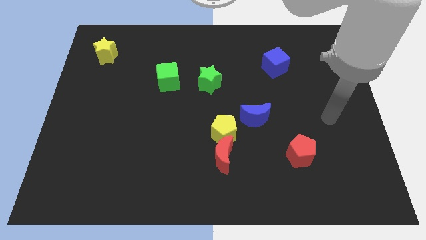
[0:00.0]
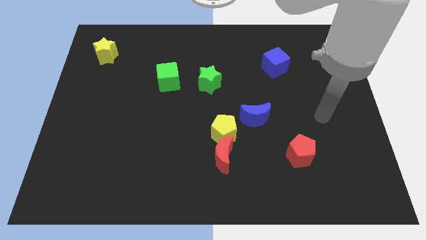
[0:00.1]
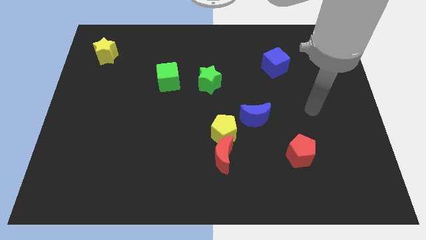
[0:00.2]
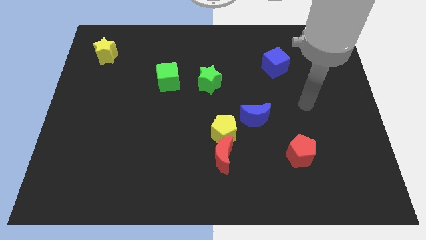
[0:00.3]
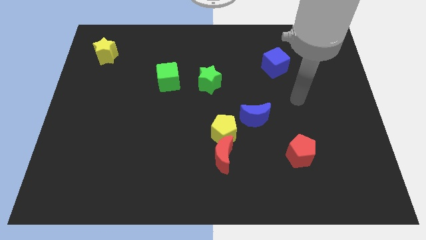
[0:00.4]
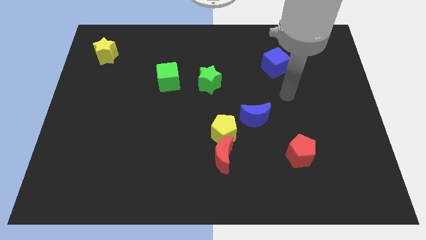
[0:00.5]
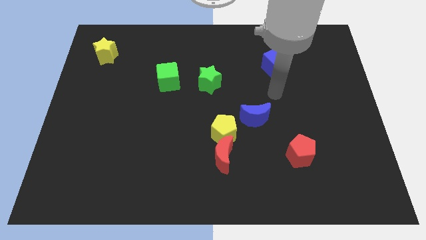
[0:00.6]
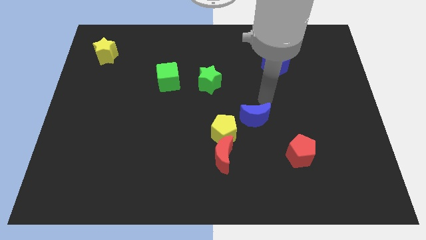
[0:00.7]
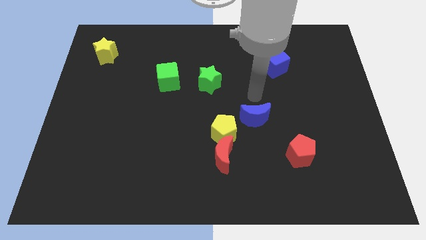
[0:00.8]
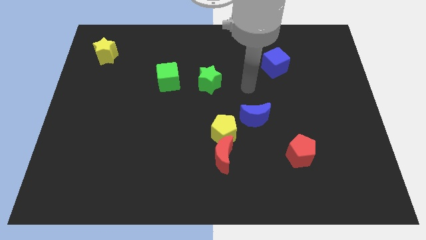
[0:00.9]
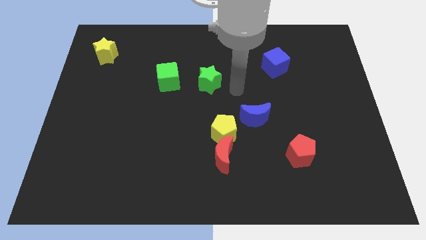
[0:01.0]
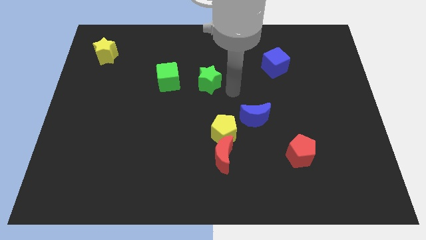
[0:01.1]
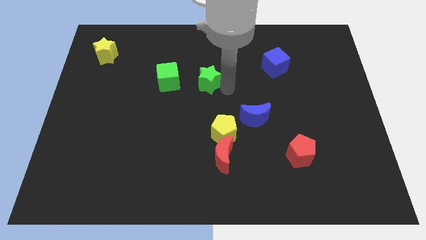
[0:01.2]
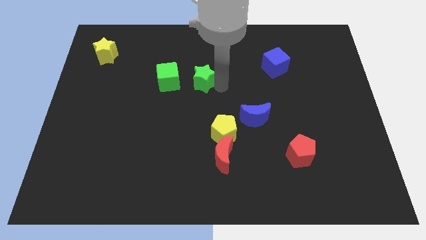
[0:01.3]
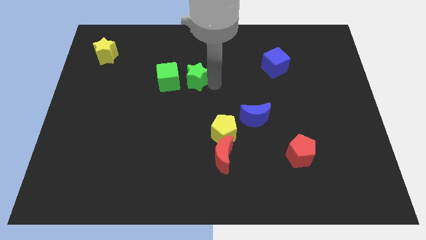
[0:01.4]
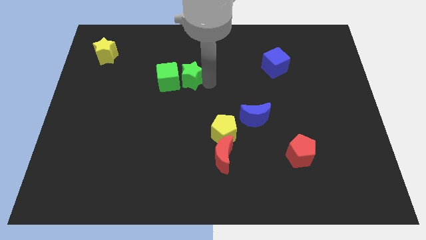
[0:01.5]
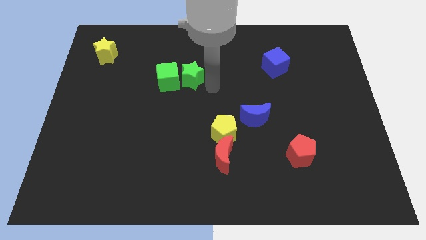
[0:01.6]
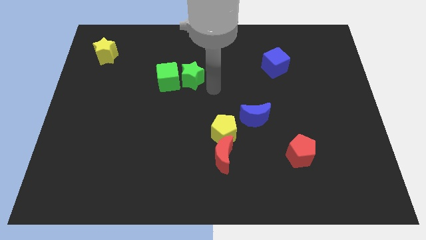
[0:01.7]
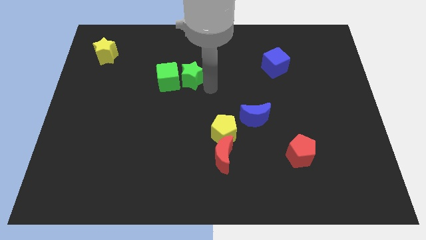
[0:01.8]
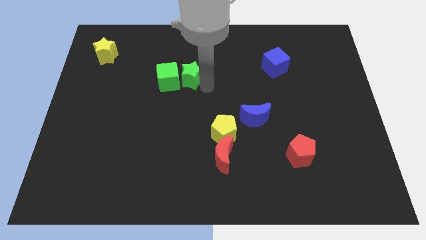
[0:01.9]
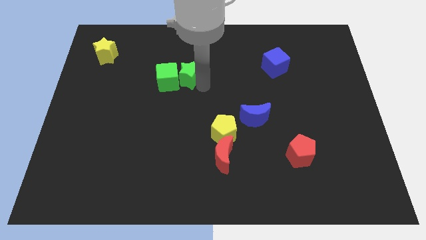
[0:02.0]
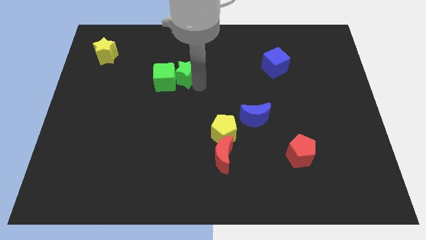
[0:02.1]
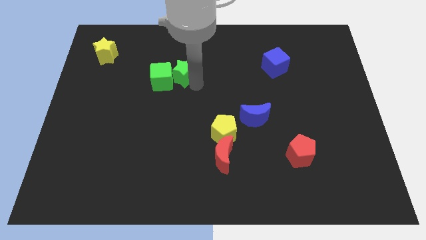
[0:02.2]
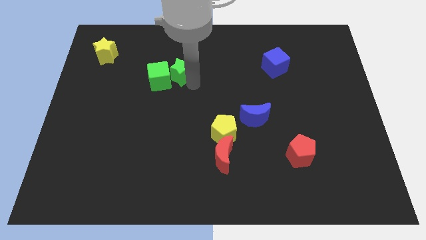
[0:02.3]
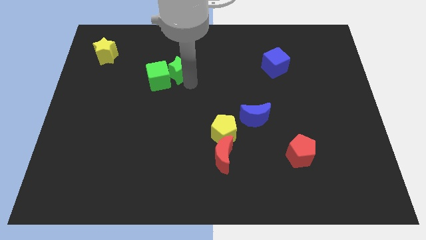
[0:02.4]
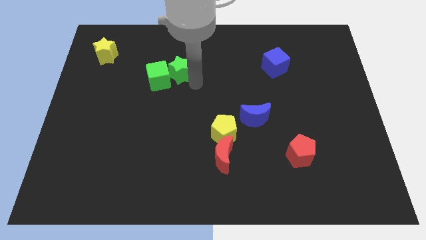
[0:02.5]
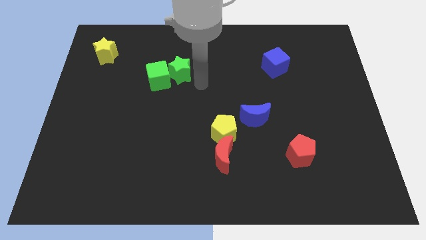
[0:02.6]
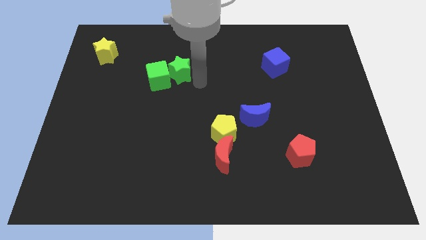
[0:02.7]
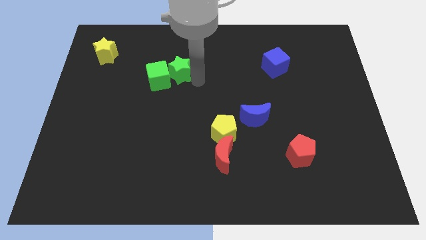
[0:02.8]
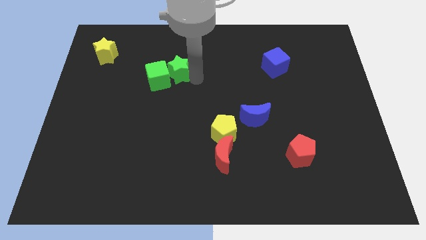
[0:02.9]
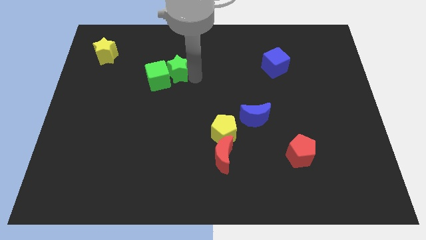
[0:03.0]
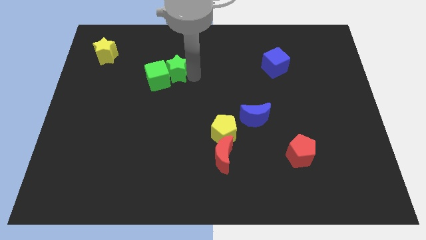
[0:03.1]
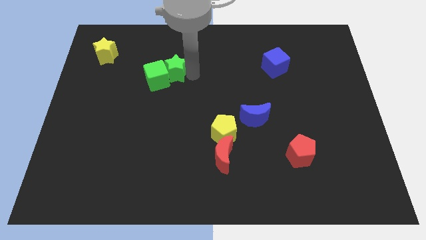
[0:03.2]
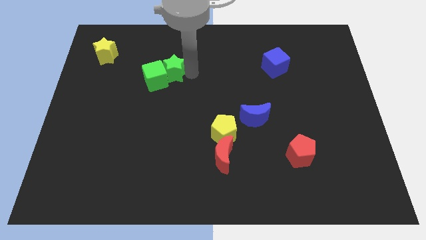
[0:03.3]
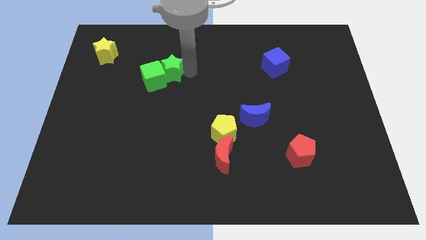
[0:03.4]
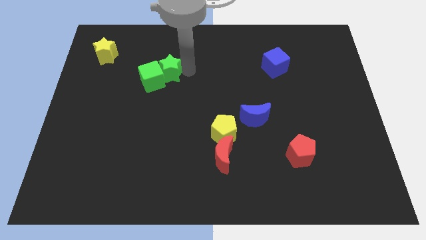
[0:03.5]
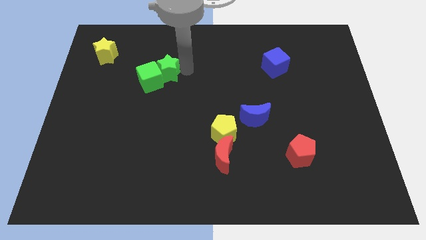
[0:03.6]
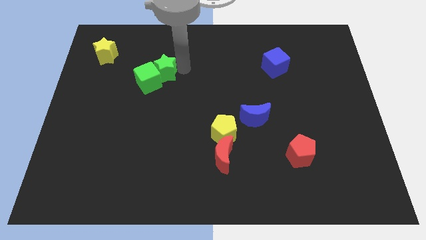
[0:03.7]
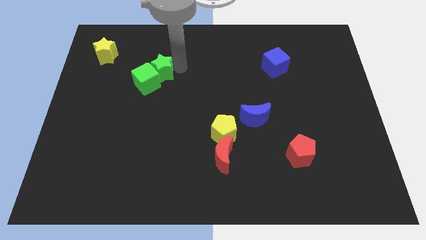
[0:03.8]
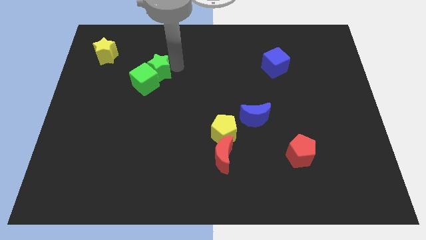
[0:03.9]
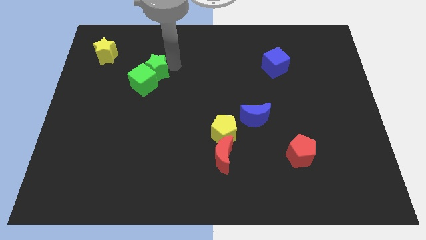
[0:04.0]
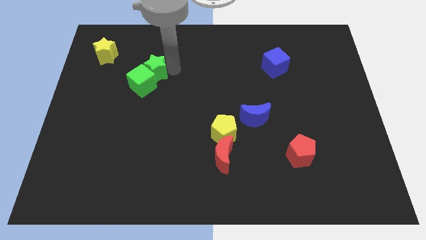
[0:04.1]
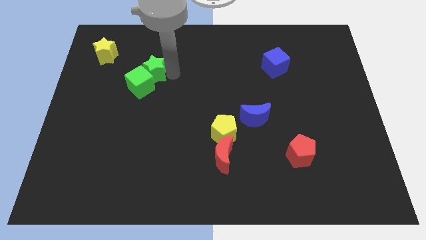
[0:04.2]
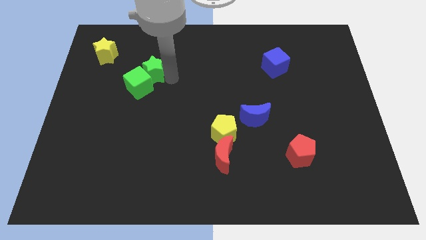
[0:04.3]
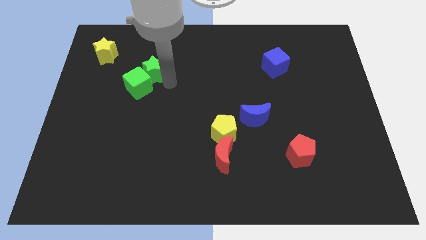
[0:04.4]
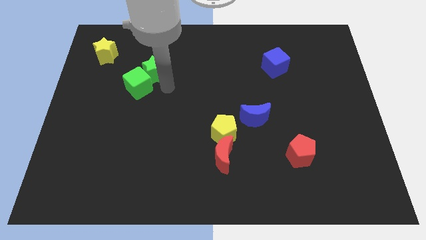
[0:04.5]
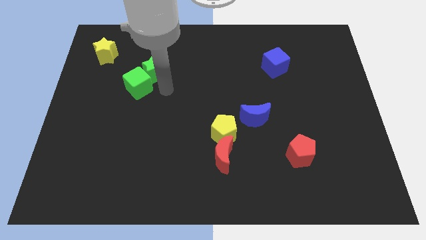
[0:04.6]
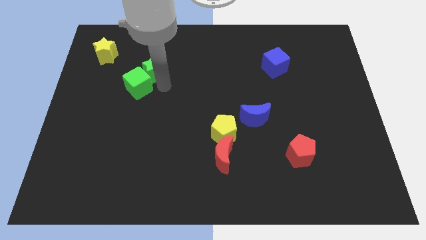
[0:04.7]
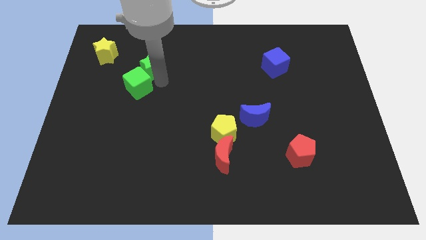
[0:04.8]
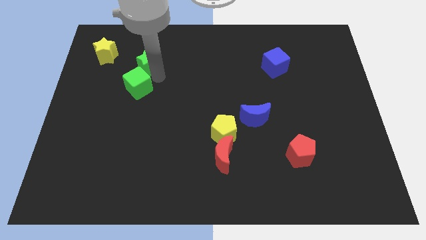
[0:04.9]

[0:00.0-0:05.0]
push the green star to the right of the yellow star

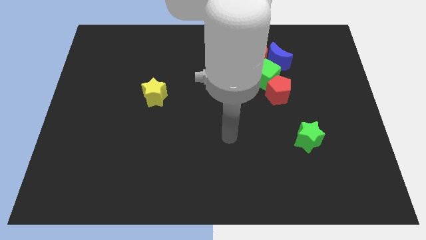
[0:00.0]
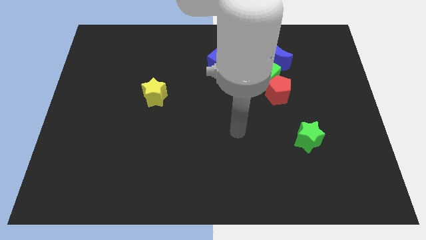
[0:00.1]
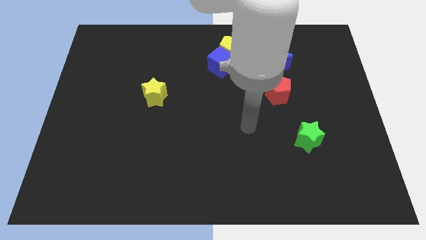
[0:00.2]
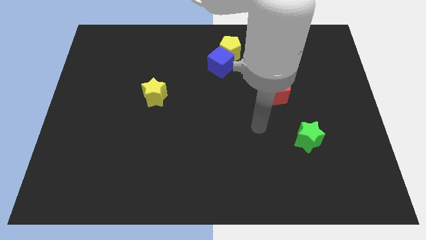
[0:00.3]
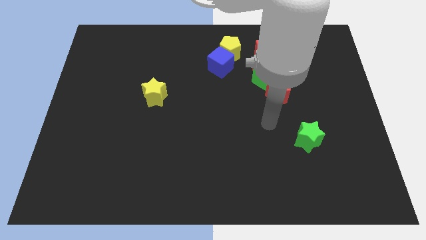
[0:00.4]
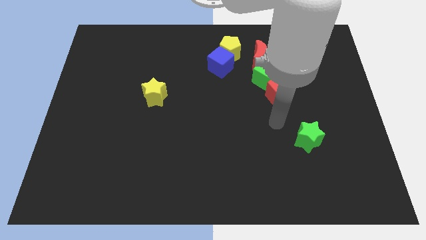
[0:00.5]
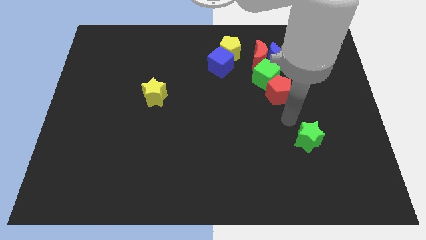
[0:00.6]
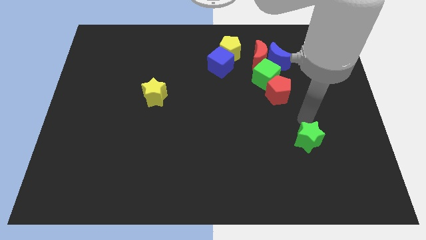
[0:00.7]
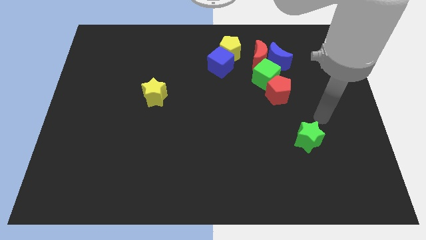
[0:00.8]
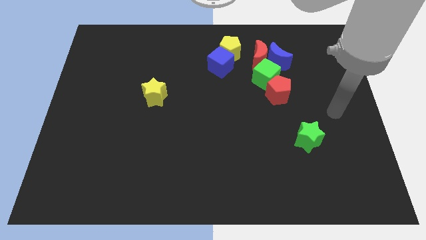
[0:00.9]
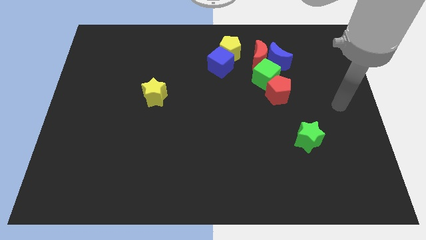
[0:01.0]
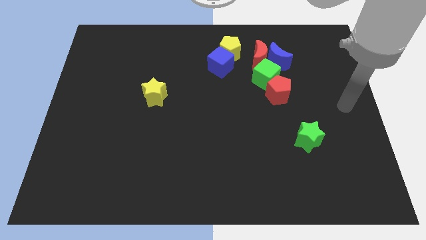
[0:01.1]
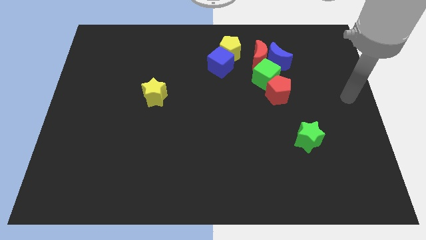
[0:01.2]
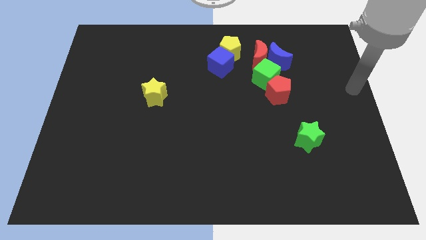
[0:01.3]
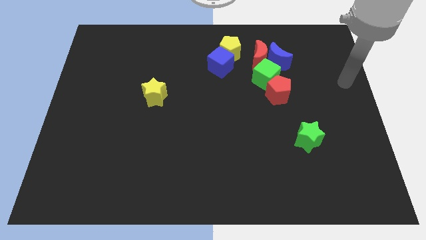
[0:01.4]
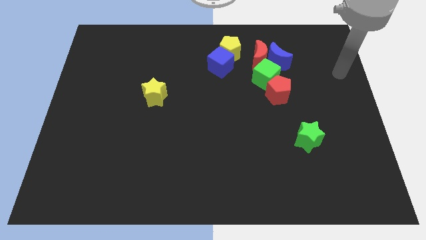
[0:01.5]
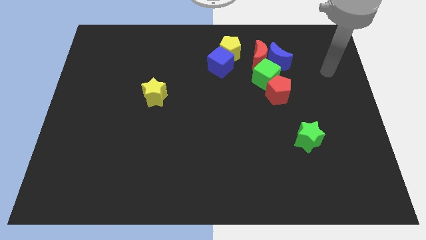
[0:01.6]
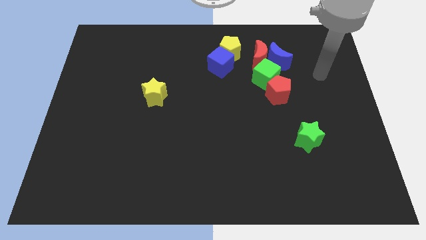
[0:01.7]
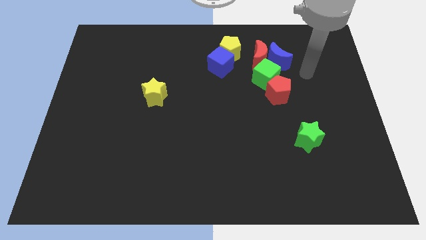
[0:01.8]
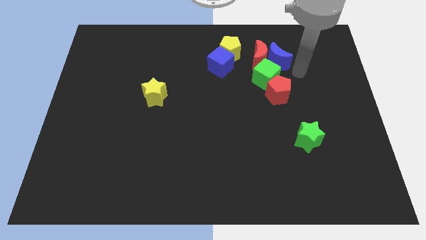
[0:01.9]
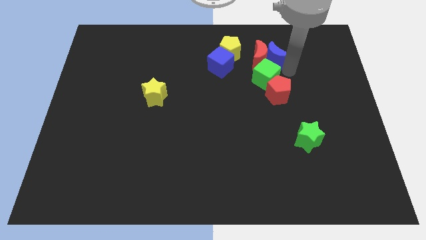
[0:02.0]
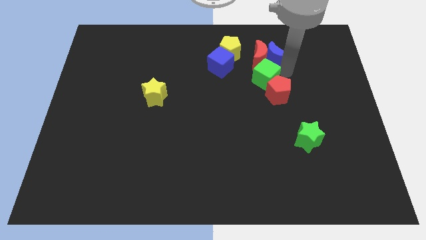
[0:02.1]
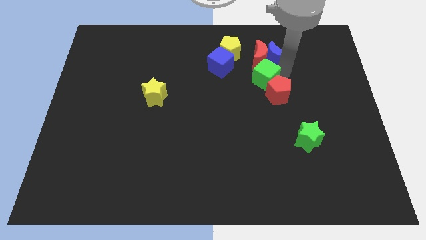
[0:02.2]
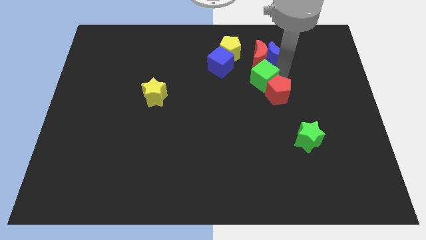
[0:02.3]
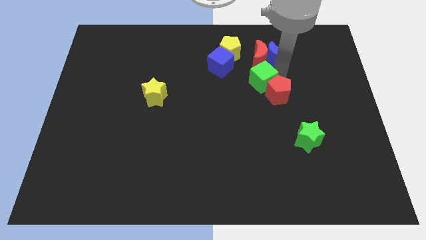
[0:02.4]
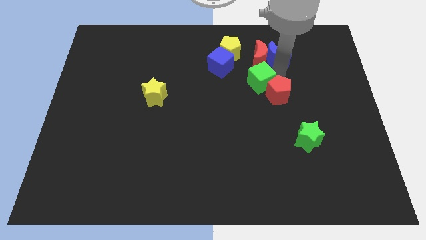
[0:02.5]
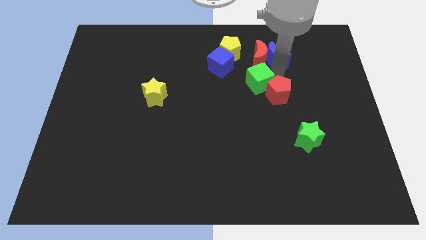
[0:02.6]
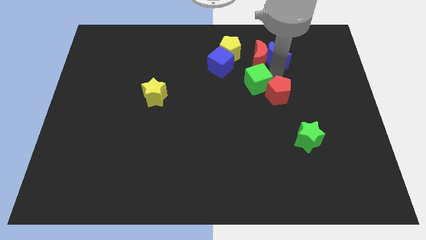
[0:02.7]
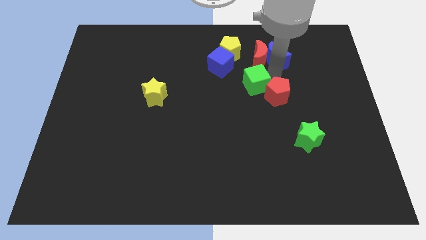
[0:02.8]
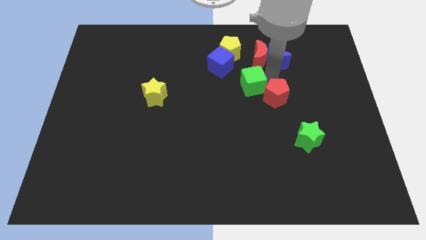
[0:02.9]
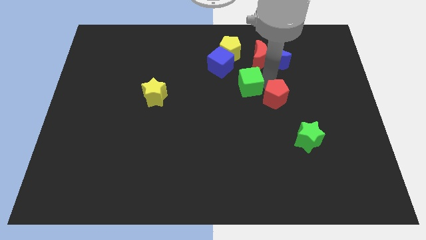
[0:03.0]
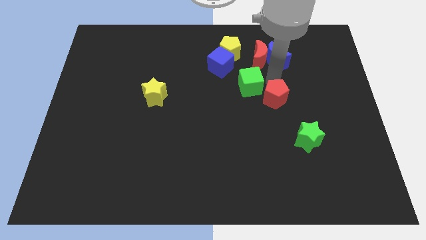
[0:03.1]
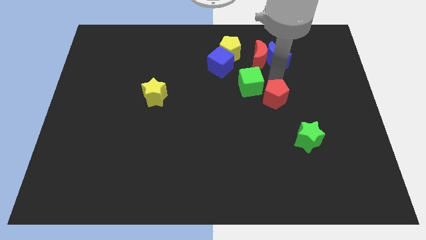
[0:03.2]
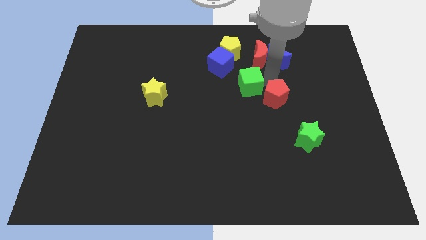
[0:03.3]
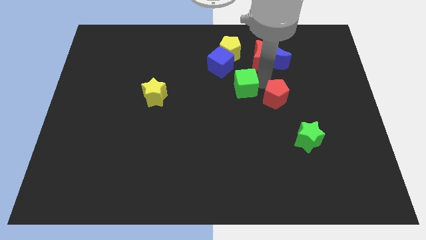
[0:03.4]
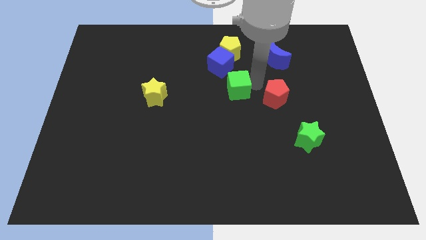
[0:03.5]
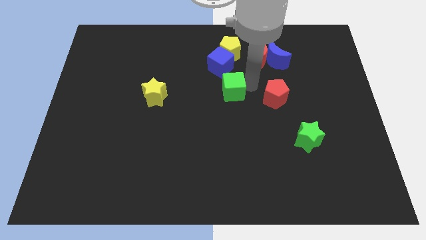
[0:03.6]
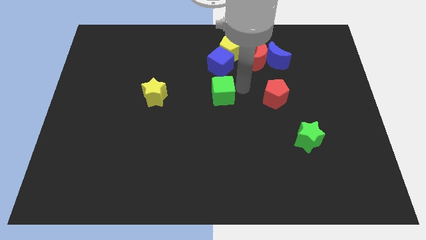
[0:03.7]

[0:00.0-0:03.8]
put the green cube just right of the yellow star
